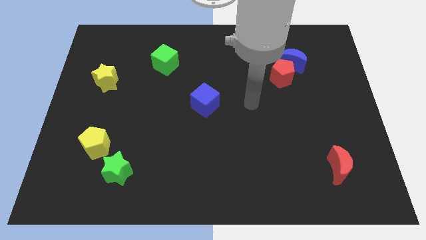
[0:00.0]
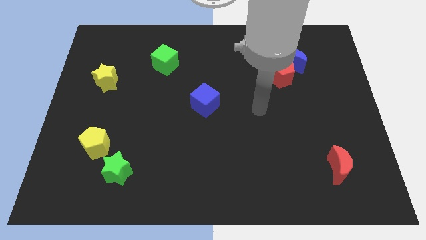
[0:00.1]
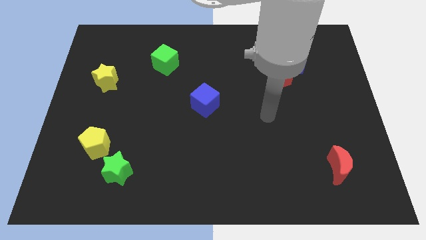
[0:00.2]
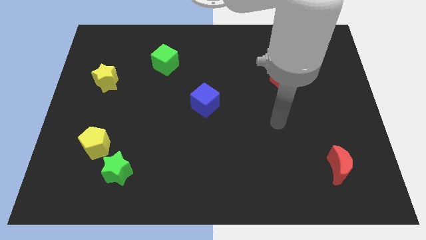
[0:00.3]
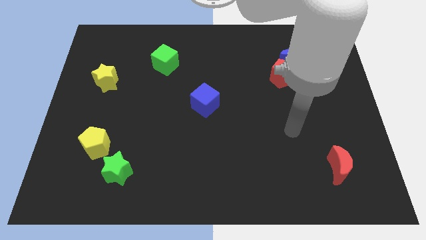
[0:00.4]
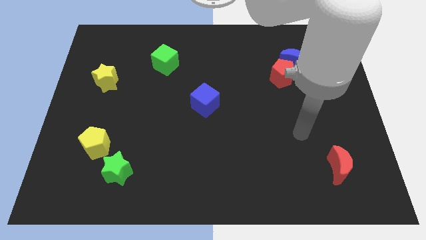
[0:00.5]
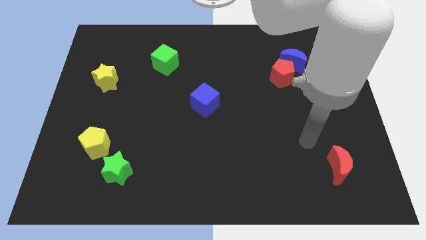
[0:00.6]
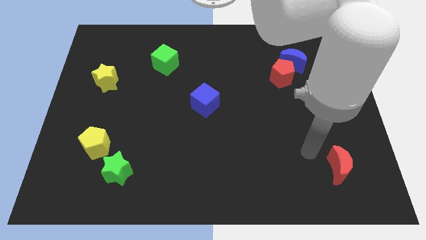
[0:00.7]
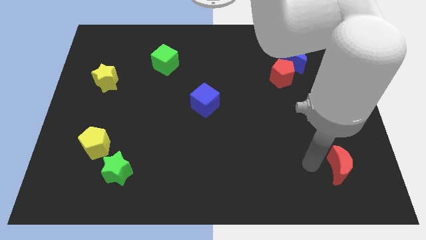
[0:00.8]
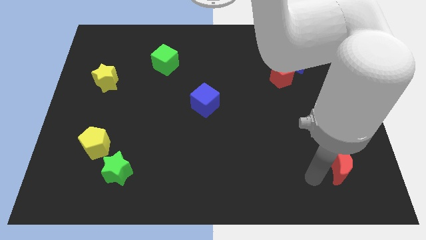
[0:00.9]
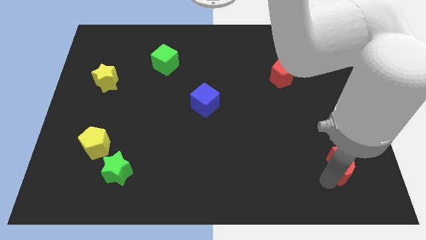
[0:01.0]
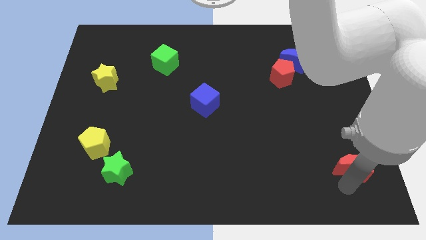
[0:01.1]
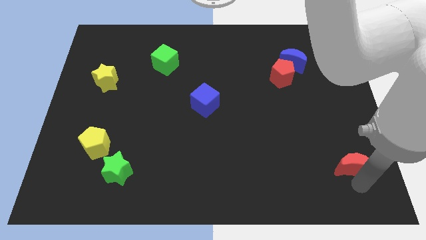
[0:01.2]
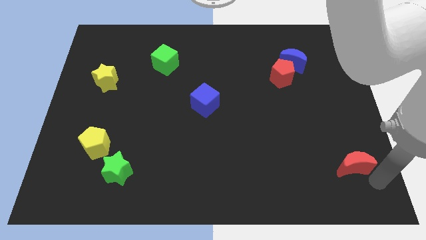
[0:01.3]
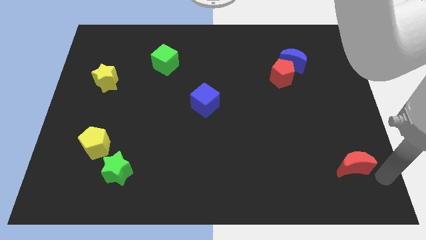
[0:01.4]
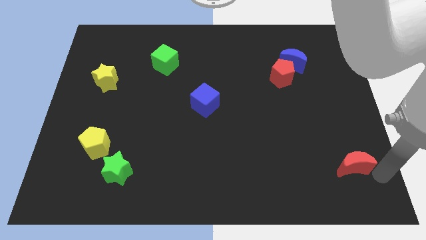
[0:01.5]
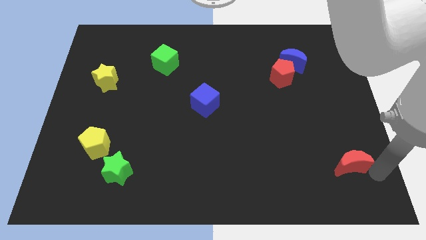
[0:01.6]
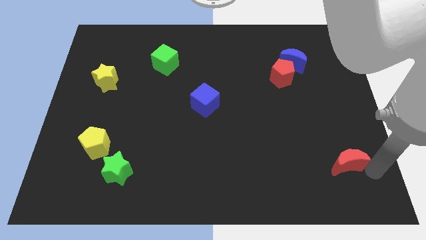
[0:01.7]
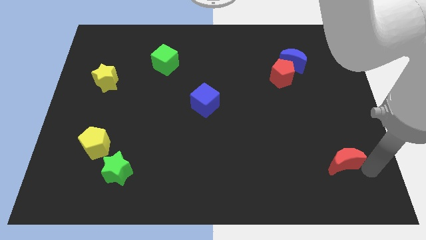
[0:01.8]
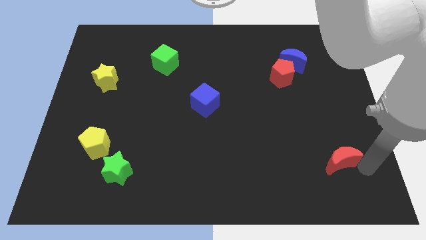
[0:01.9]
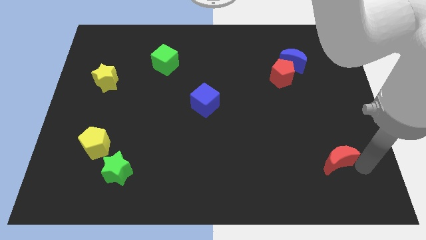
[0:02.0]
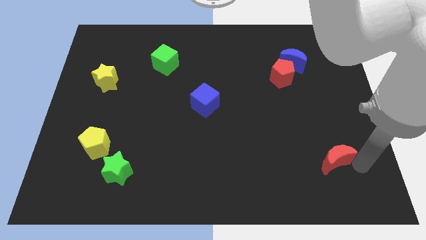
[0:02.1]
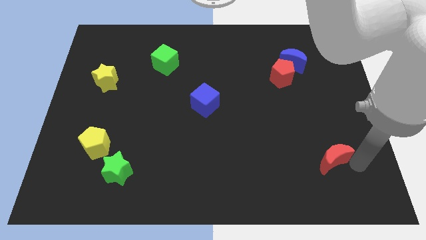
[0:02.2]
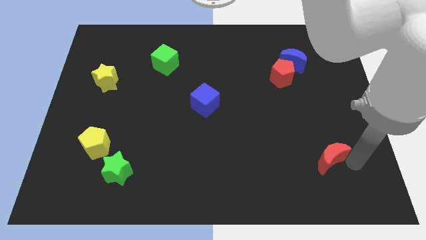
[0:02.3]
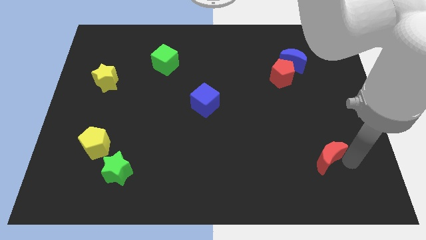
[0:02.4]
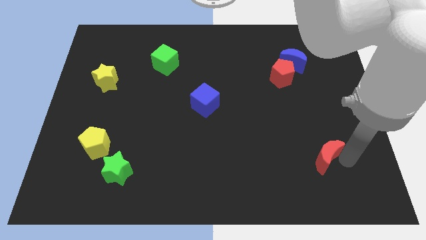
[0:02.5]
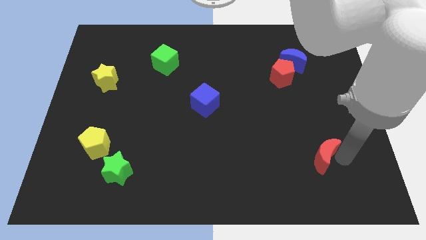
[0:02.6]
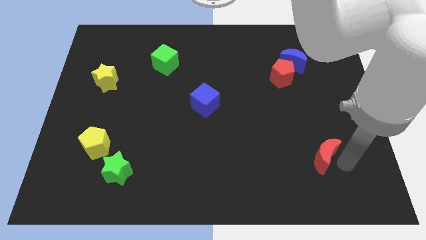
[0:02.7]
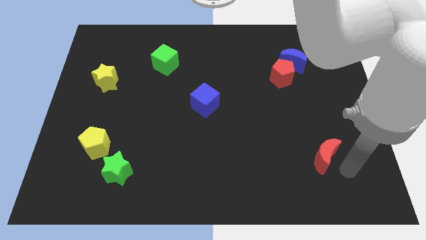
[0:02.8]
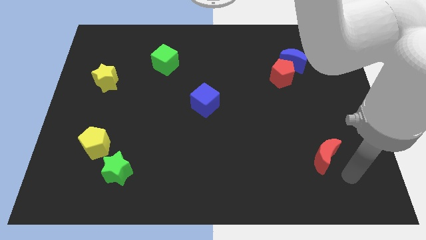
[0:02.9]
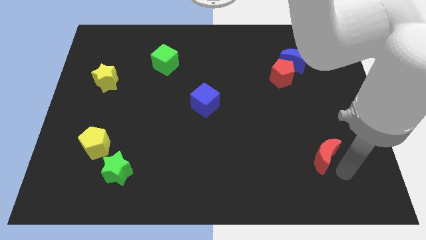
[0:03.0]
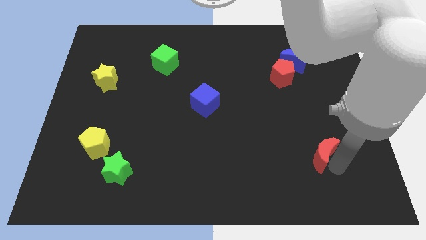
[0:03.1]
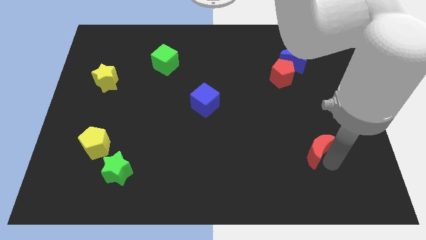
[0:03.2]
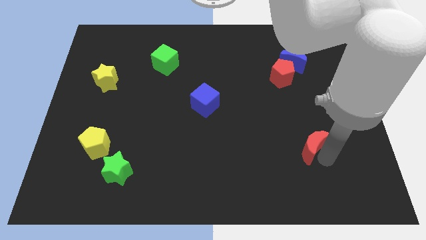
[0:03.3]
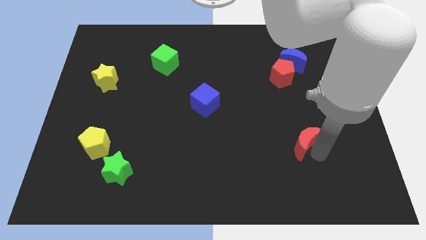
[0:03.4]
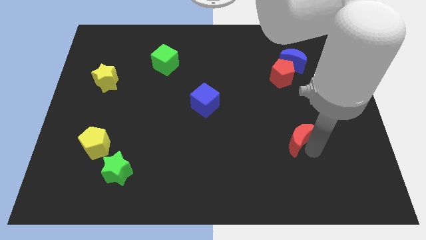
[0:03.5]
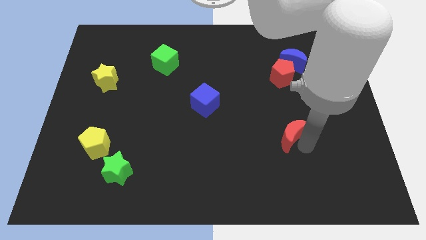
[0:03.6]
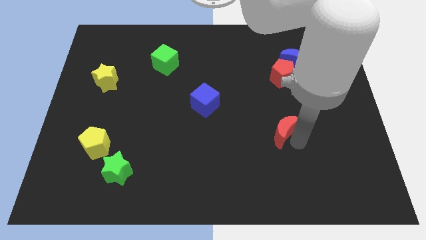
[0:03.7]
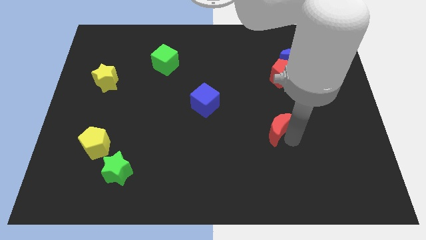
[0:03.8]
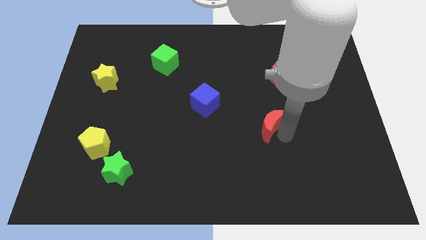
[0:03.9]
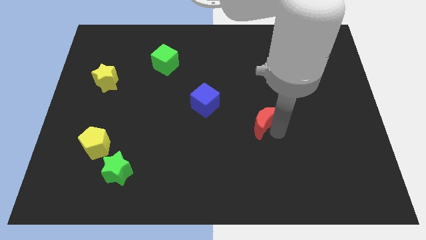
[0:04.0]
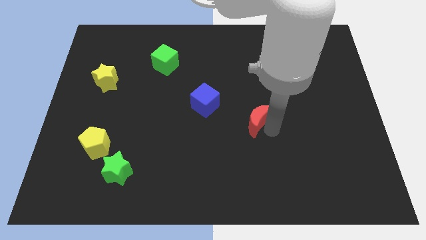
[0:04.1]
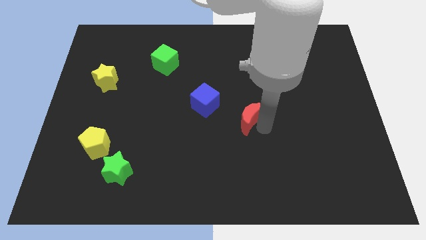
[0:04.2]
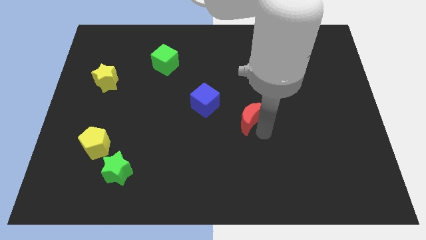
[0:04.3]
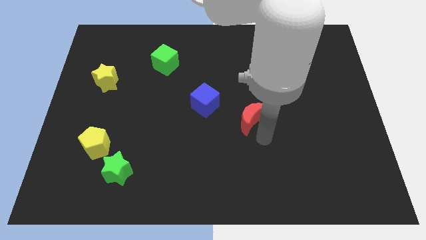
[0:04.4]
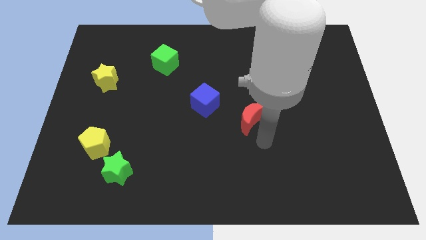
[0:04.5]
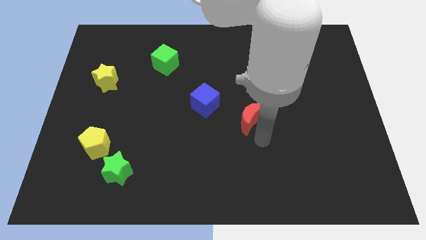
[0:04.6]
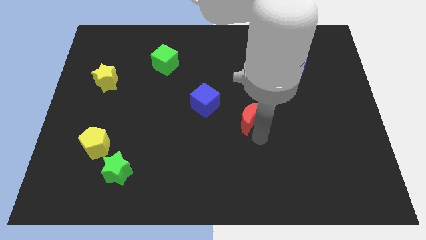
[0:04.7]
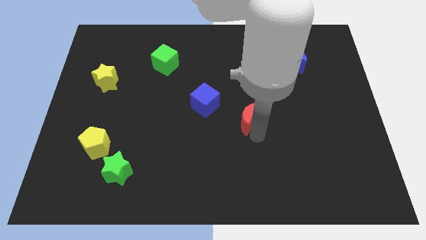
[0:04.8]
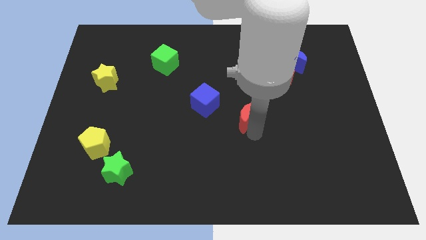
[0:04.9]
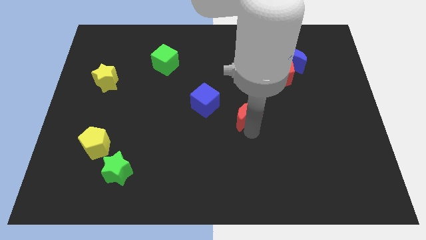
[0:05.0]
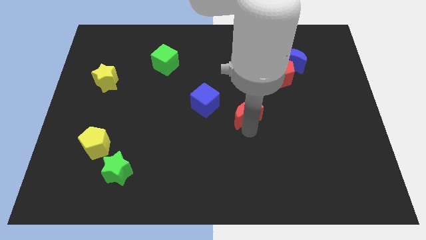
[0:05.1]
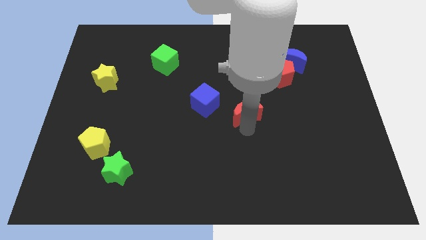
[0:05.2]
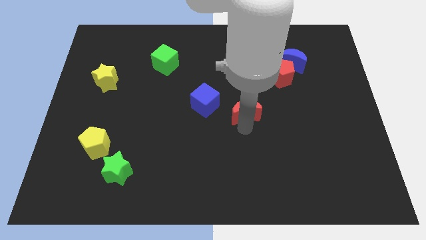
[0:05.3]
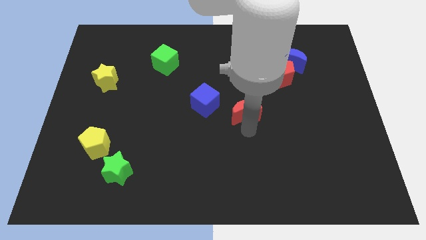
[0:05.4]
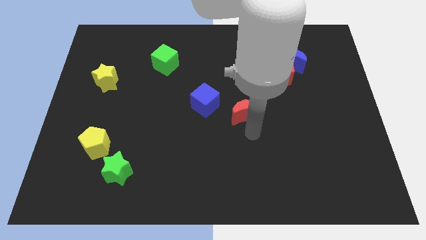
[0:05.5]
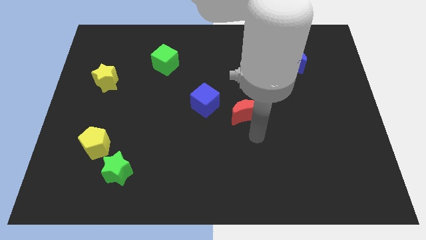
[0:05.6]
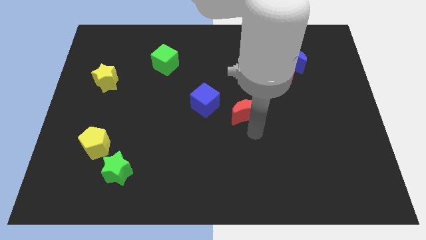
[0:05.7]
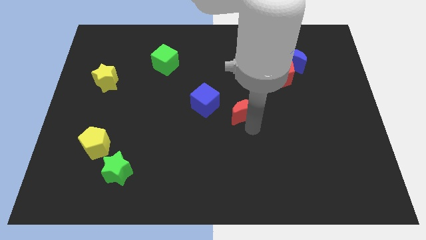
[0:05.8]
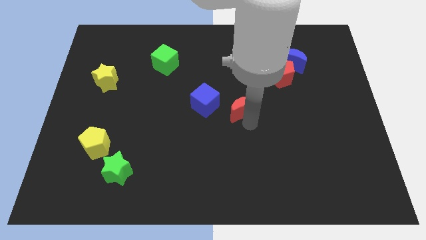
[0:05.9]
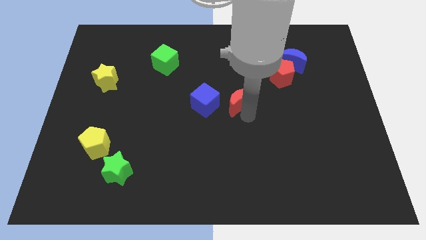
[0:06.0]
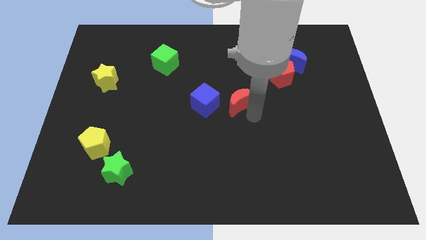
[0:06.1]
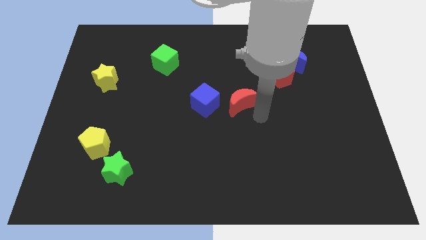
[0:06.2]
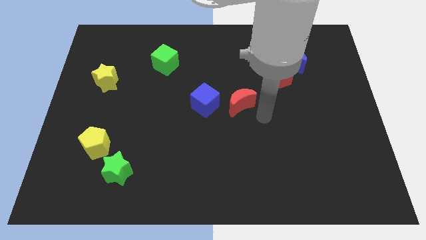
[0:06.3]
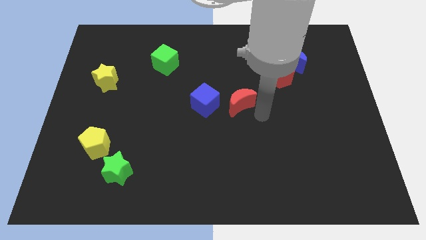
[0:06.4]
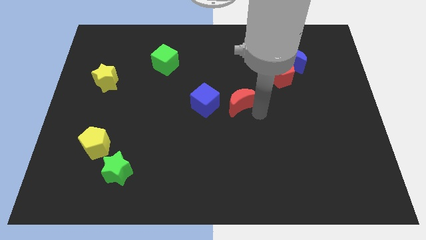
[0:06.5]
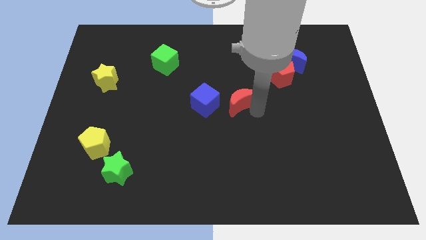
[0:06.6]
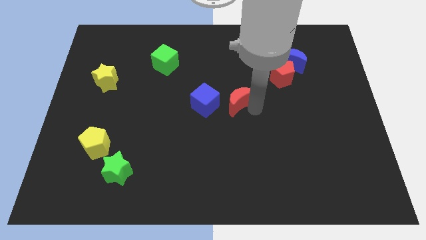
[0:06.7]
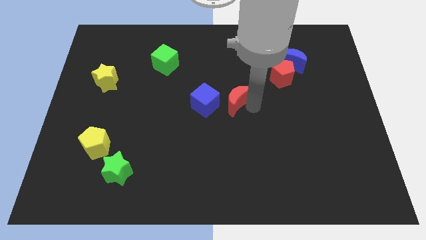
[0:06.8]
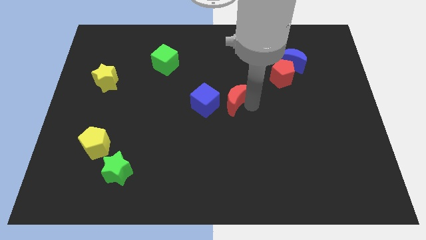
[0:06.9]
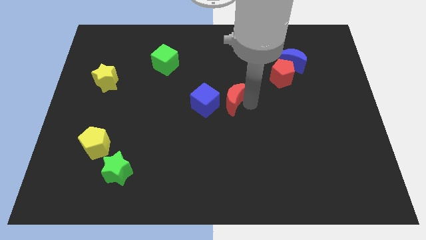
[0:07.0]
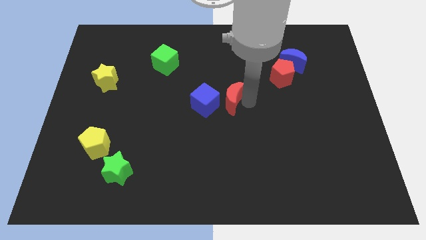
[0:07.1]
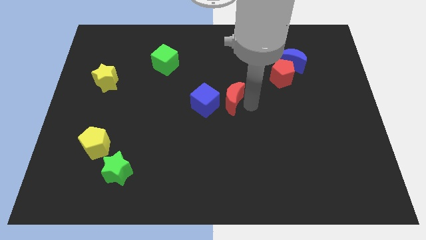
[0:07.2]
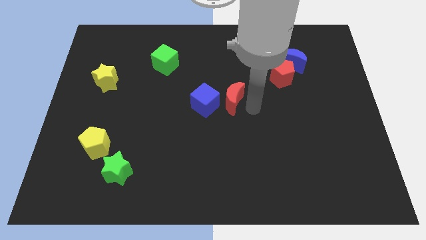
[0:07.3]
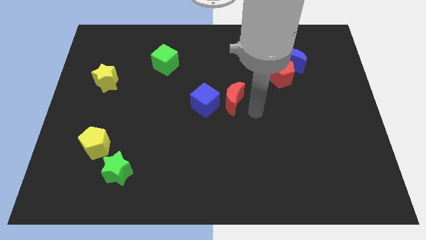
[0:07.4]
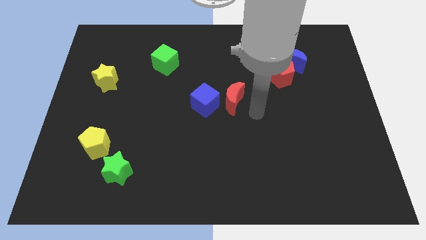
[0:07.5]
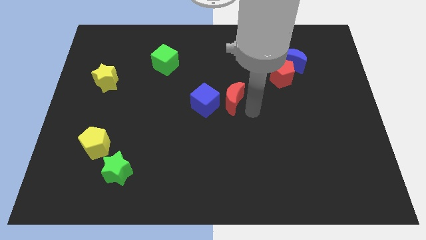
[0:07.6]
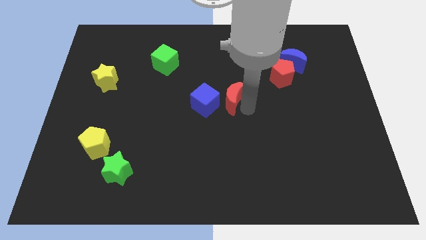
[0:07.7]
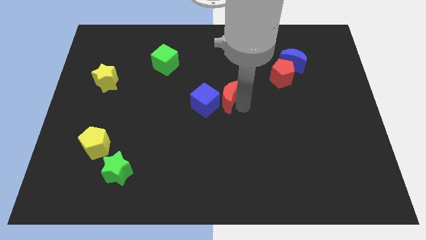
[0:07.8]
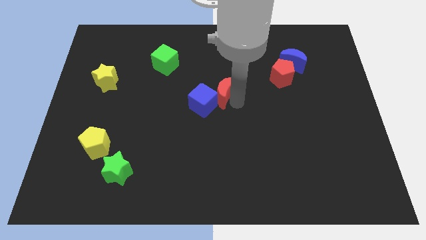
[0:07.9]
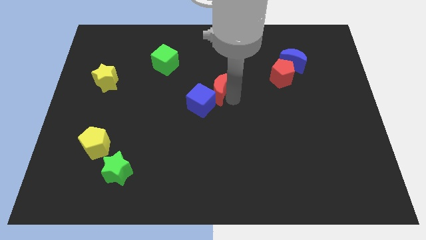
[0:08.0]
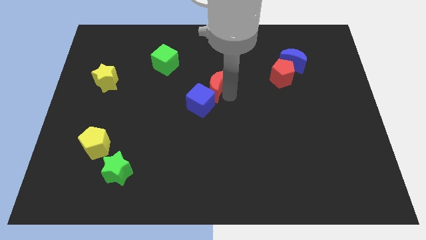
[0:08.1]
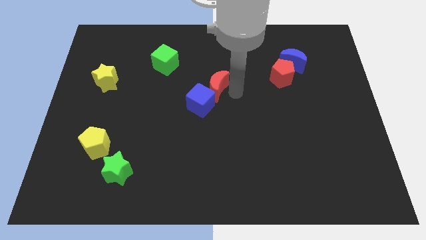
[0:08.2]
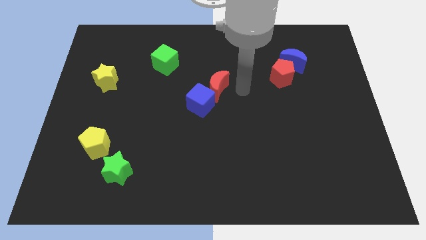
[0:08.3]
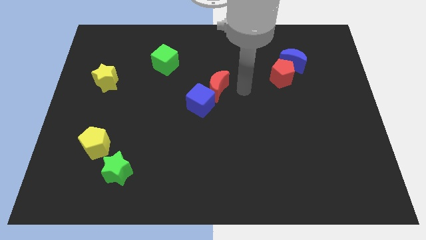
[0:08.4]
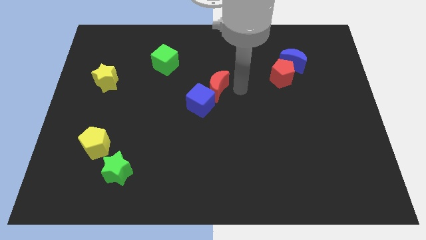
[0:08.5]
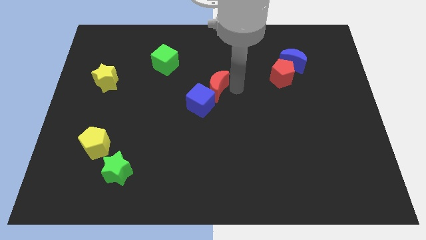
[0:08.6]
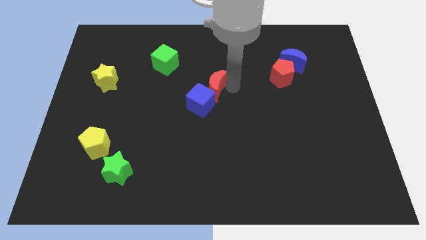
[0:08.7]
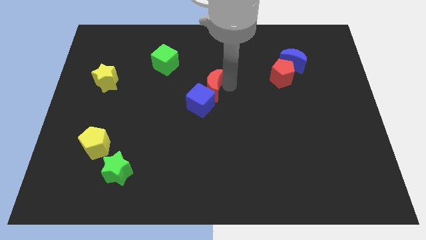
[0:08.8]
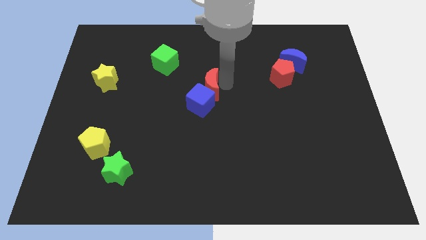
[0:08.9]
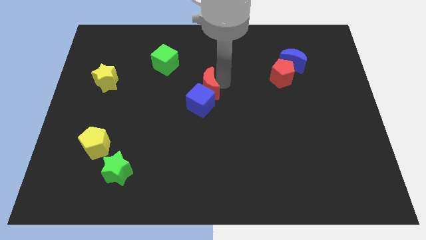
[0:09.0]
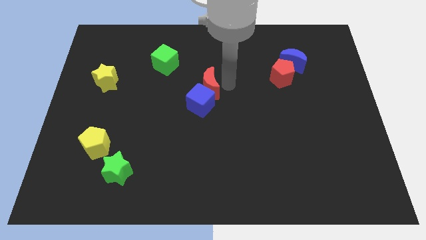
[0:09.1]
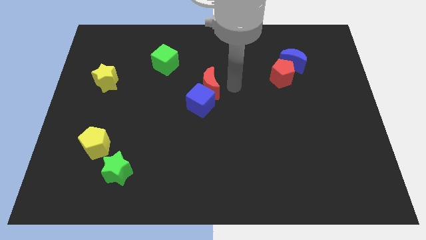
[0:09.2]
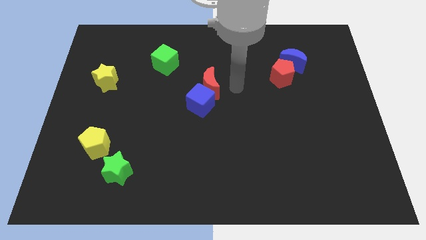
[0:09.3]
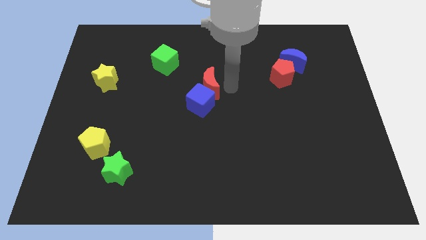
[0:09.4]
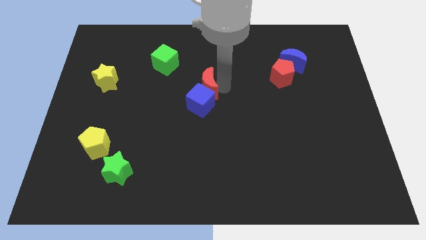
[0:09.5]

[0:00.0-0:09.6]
move the red moon to the top left side of the blue cube
